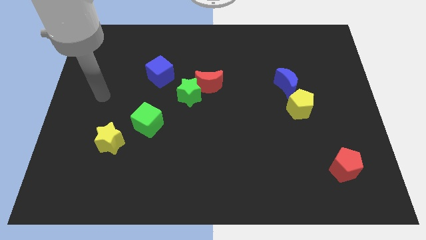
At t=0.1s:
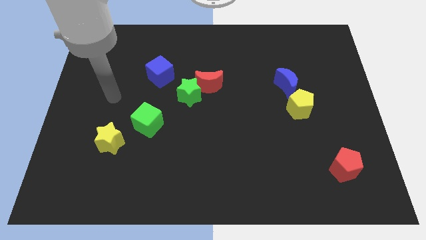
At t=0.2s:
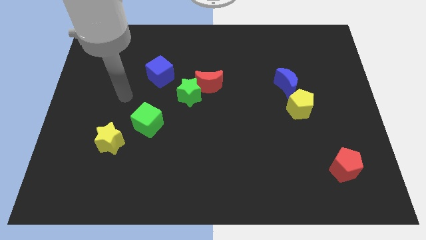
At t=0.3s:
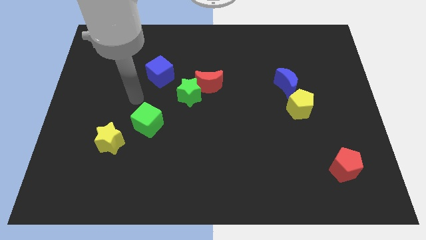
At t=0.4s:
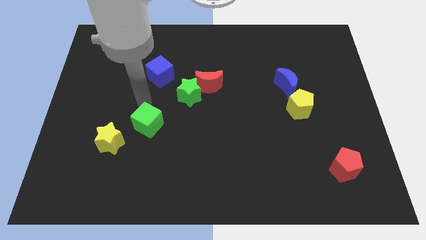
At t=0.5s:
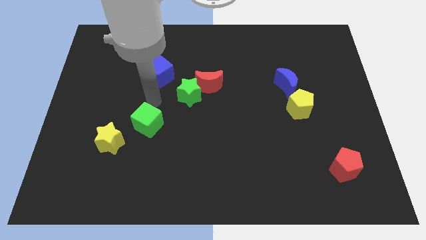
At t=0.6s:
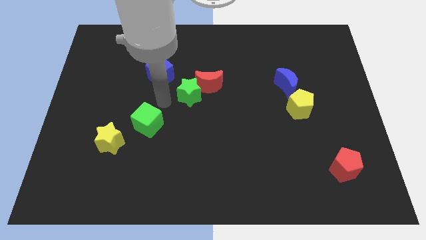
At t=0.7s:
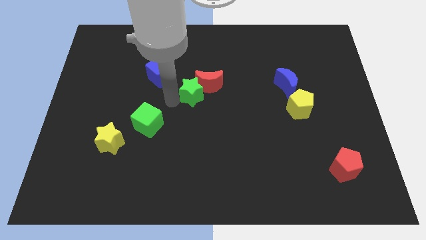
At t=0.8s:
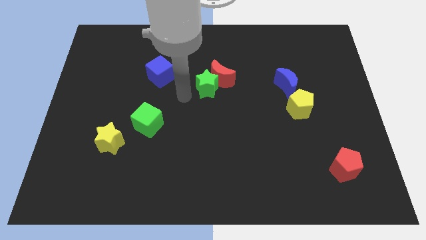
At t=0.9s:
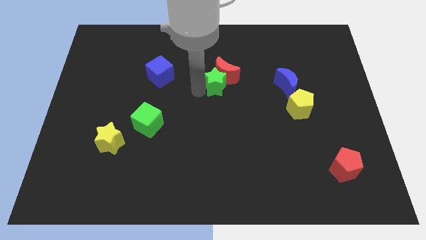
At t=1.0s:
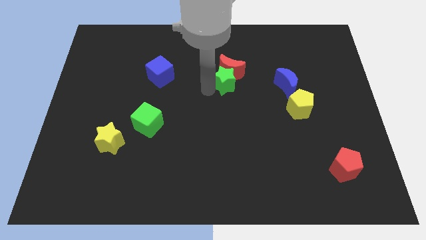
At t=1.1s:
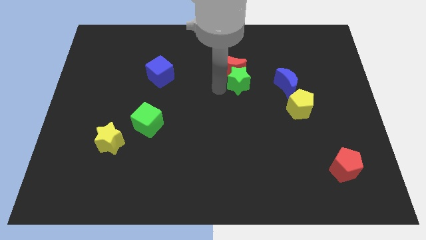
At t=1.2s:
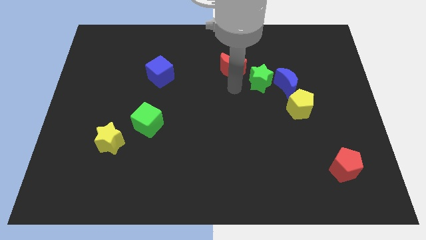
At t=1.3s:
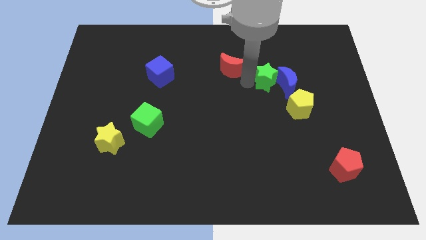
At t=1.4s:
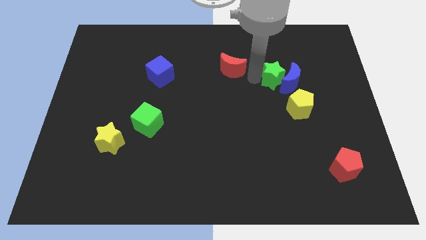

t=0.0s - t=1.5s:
separate the red moon from the green star

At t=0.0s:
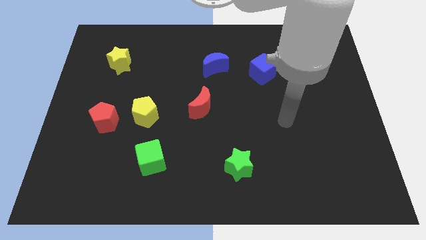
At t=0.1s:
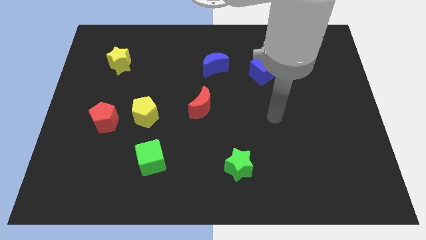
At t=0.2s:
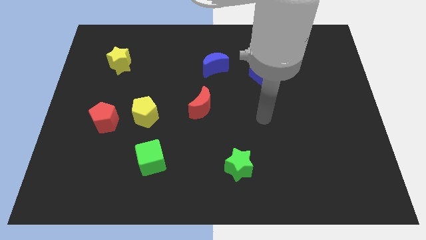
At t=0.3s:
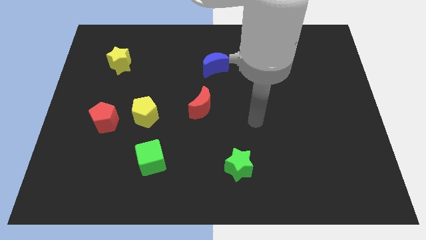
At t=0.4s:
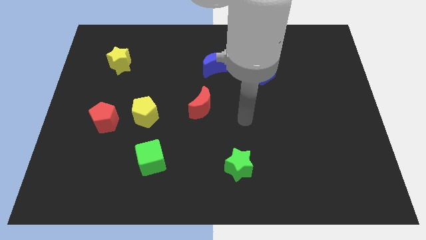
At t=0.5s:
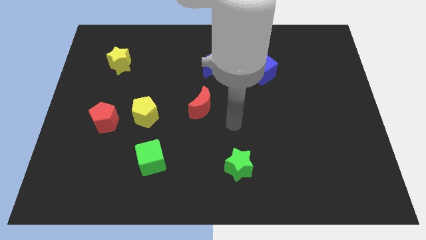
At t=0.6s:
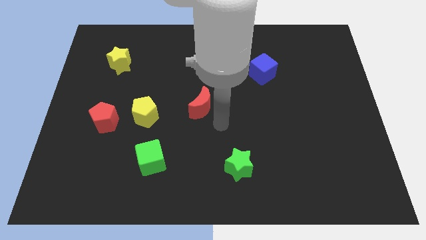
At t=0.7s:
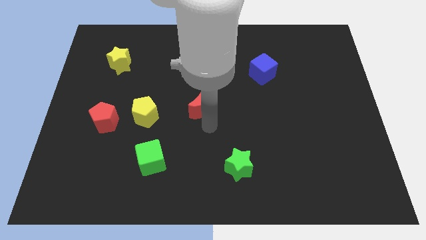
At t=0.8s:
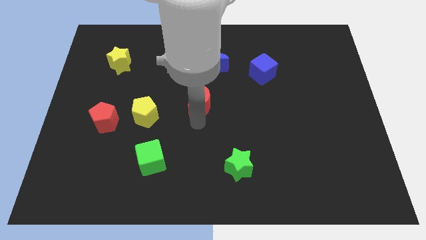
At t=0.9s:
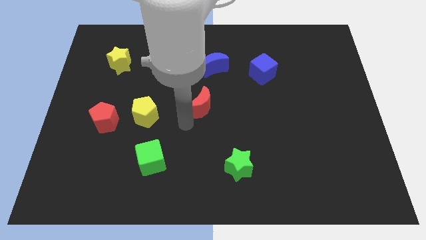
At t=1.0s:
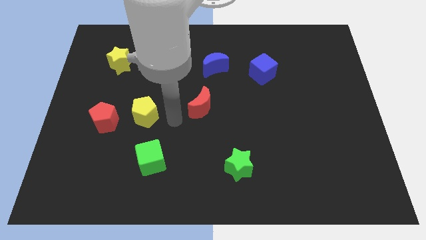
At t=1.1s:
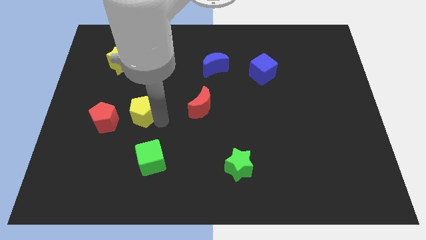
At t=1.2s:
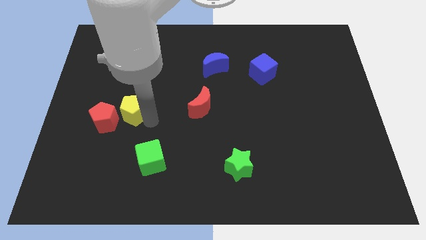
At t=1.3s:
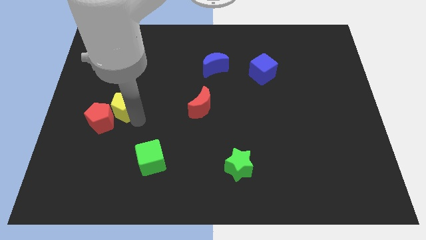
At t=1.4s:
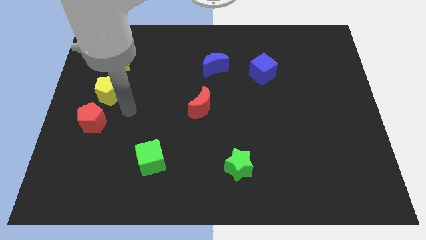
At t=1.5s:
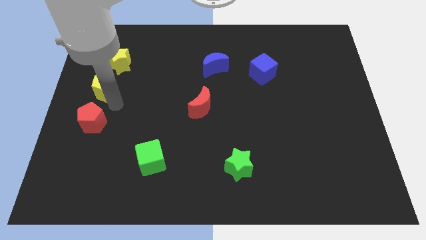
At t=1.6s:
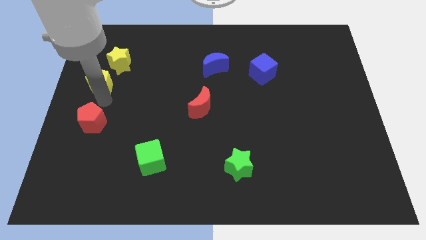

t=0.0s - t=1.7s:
pull the red pentagon apart from the yellow pentagon

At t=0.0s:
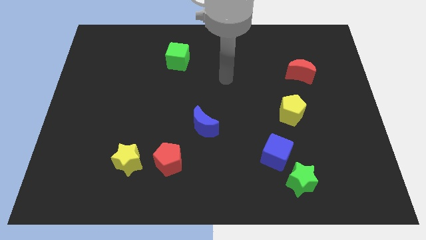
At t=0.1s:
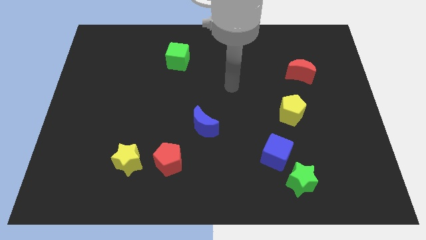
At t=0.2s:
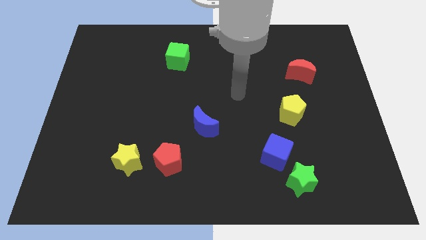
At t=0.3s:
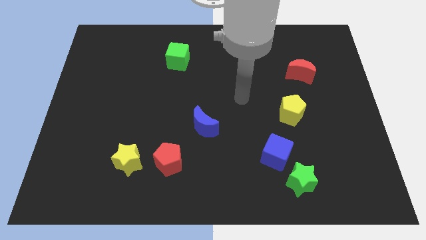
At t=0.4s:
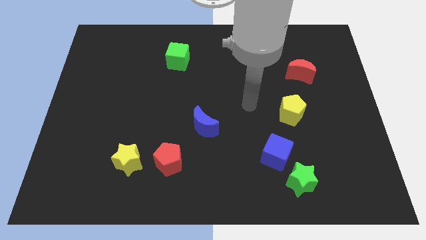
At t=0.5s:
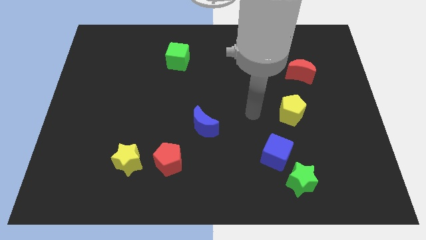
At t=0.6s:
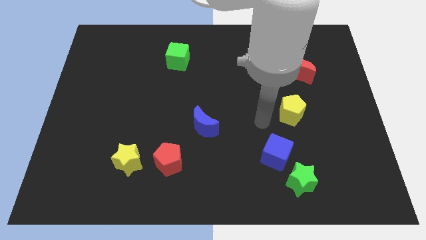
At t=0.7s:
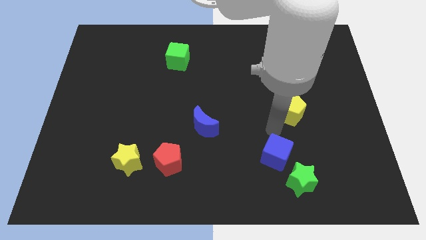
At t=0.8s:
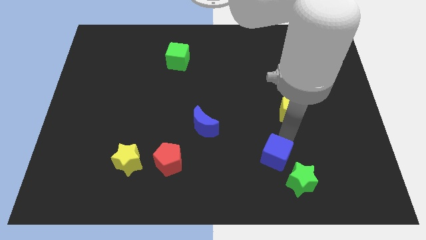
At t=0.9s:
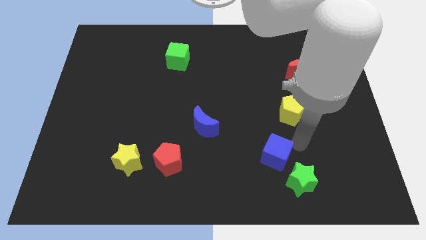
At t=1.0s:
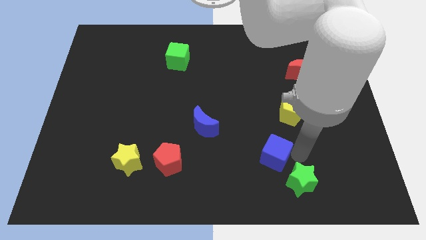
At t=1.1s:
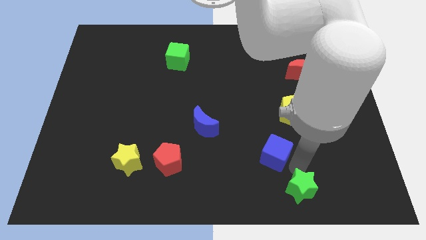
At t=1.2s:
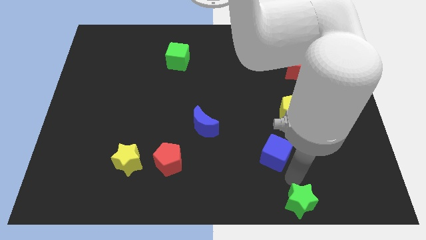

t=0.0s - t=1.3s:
pull the blue cube apart from the green star

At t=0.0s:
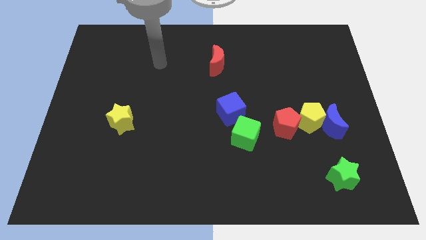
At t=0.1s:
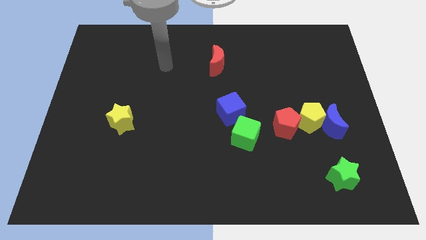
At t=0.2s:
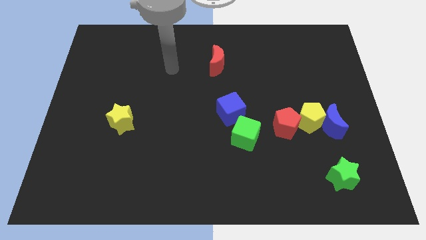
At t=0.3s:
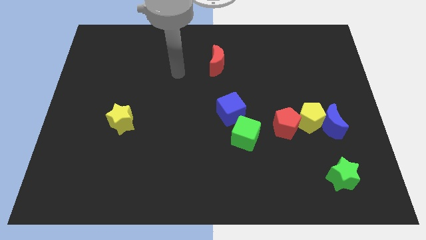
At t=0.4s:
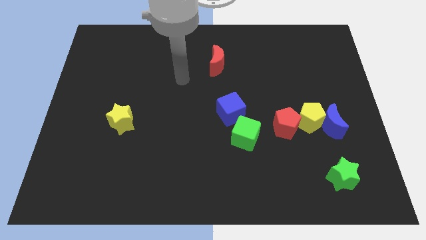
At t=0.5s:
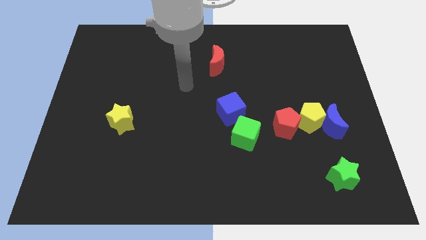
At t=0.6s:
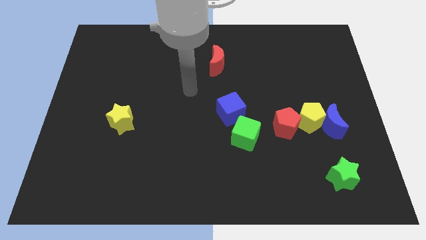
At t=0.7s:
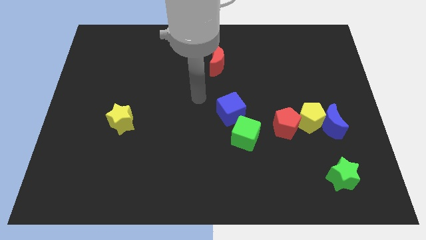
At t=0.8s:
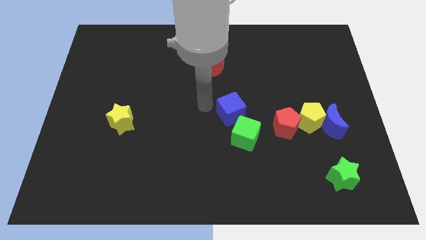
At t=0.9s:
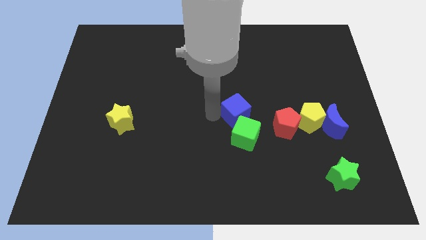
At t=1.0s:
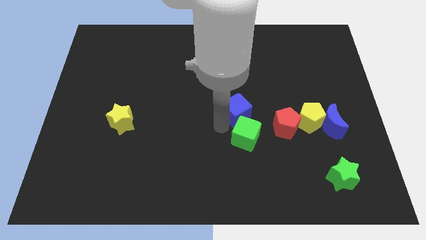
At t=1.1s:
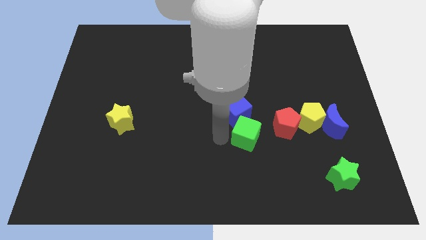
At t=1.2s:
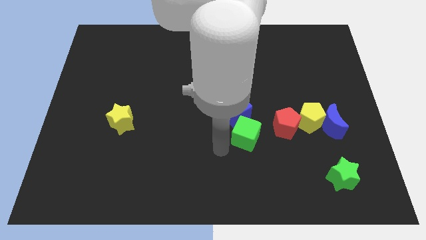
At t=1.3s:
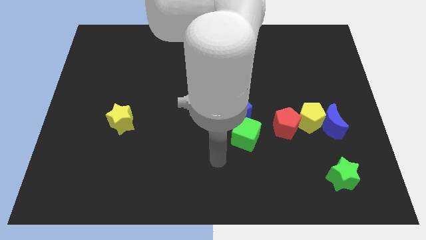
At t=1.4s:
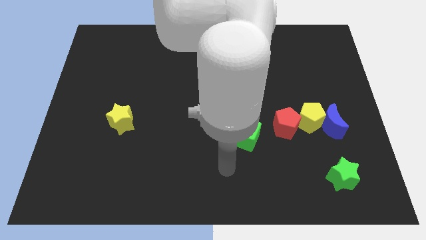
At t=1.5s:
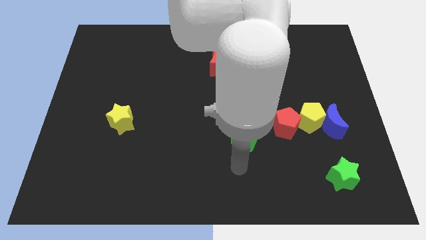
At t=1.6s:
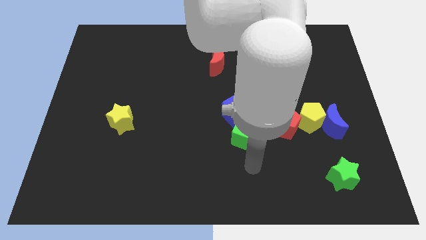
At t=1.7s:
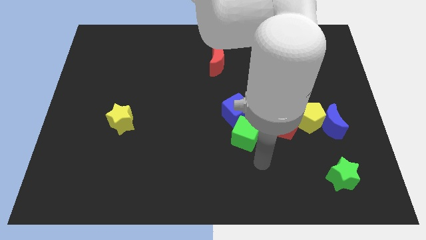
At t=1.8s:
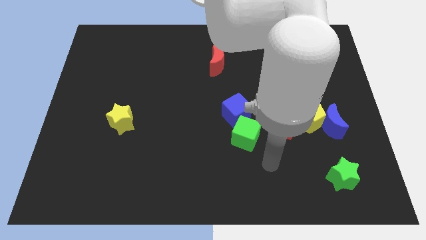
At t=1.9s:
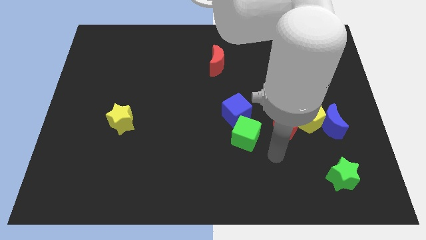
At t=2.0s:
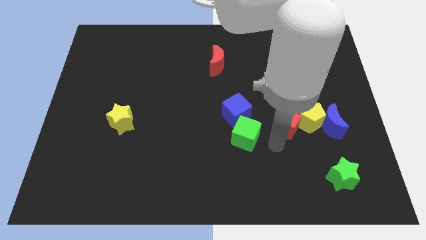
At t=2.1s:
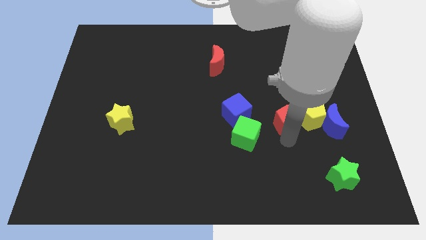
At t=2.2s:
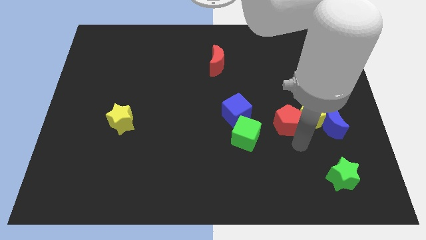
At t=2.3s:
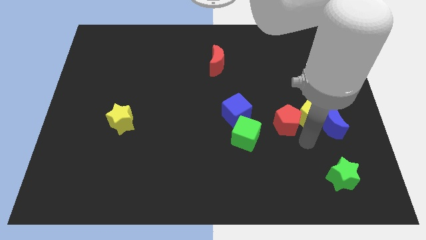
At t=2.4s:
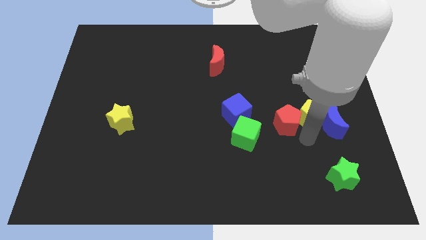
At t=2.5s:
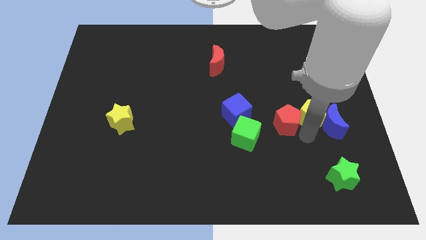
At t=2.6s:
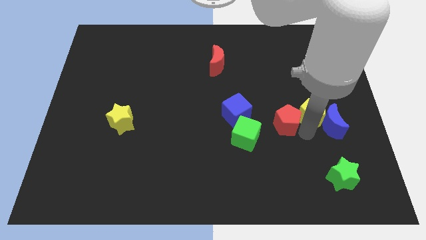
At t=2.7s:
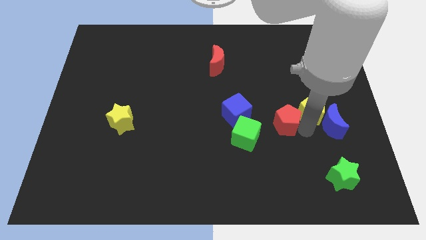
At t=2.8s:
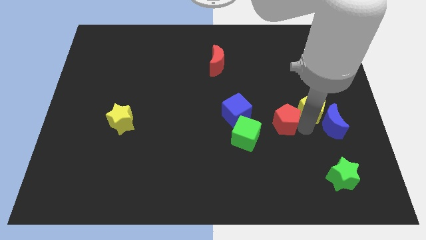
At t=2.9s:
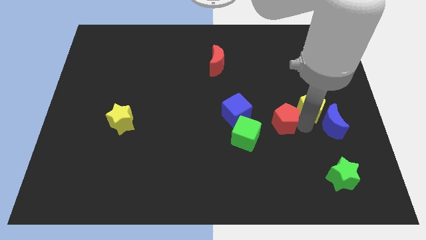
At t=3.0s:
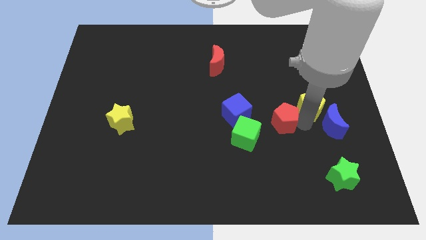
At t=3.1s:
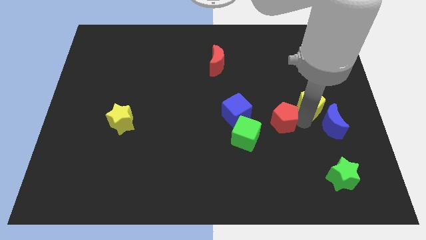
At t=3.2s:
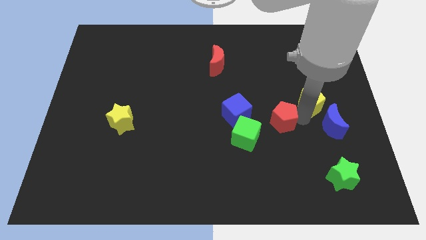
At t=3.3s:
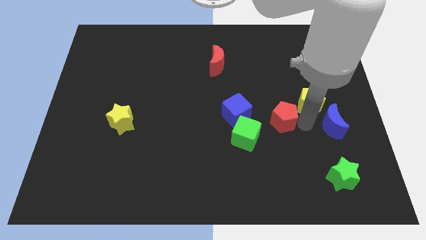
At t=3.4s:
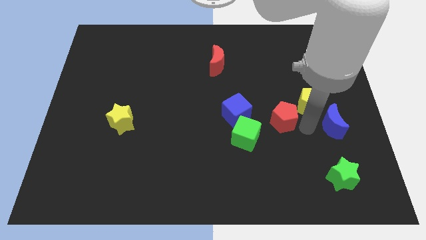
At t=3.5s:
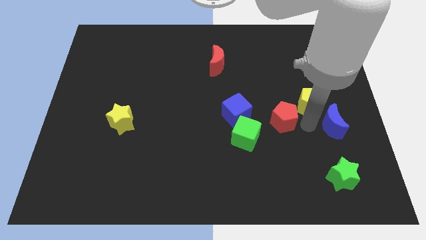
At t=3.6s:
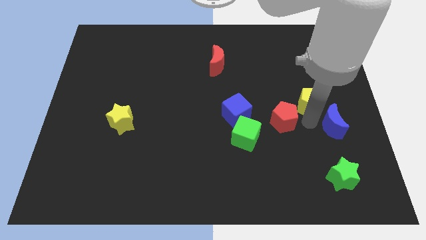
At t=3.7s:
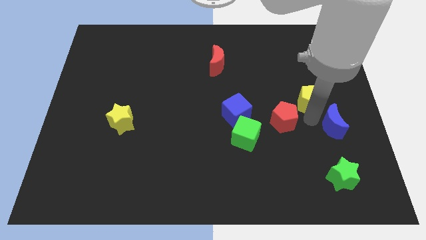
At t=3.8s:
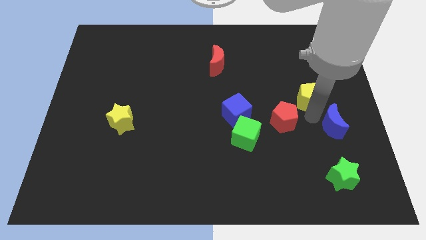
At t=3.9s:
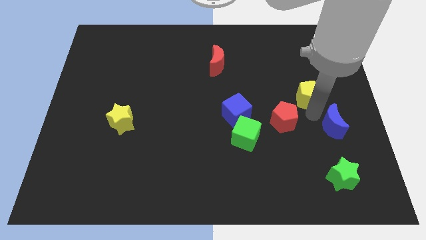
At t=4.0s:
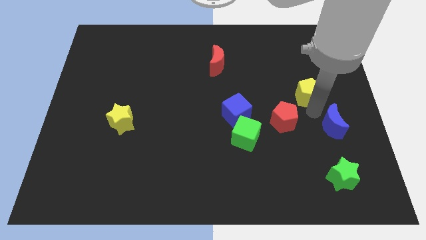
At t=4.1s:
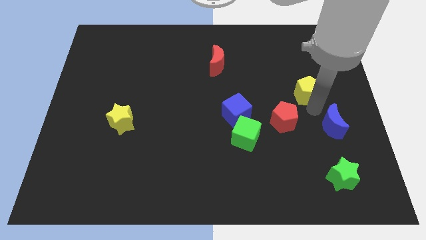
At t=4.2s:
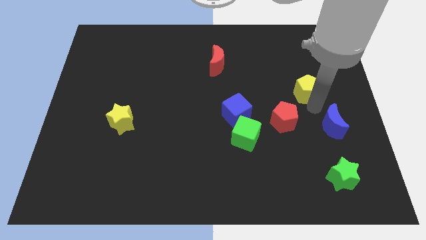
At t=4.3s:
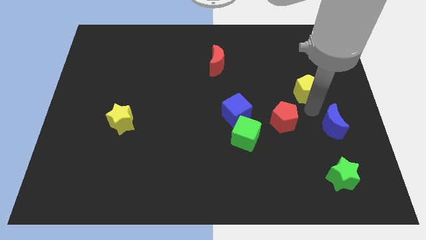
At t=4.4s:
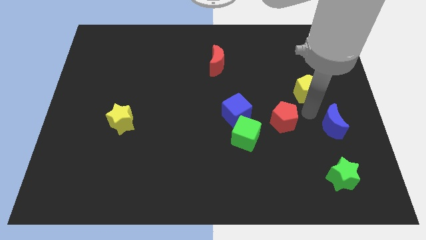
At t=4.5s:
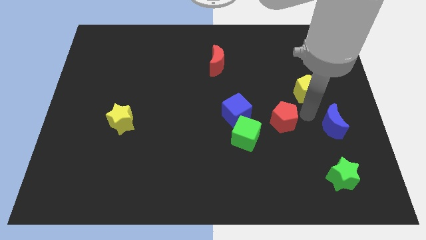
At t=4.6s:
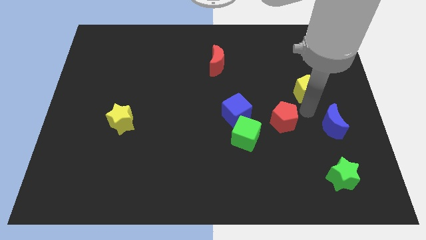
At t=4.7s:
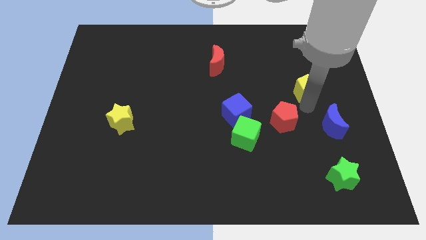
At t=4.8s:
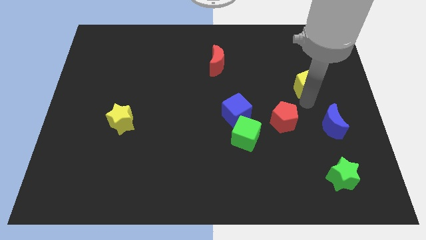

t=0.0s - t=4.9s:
move the yellow pentagon away from the blue moon and red pentagon
